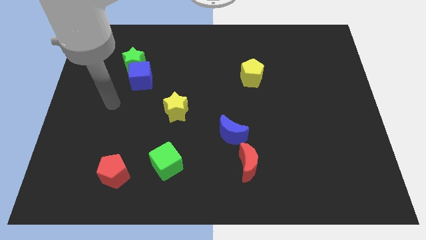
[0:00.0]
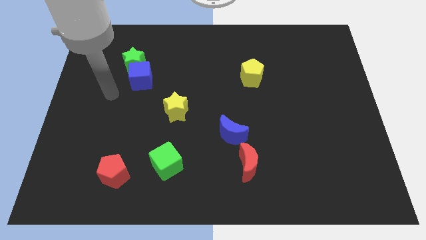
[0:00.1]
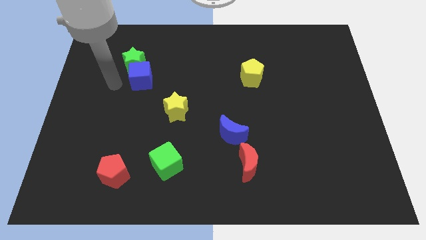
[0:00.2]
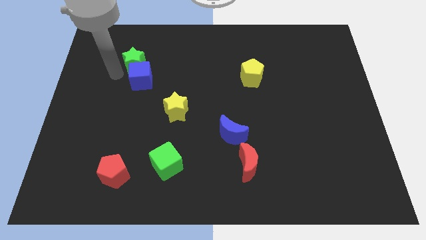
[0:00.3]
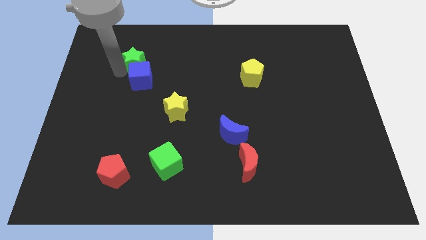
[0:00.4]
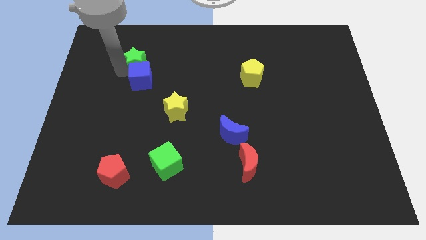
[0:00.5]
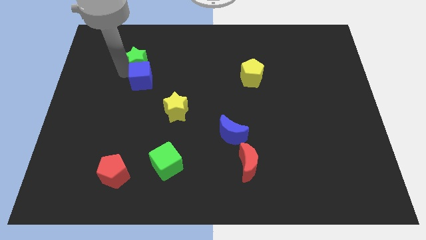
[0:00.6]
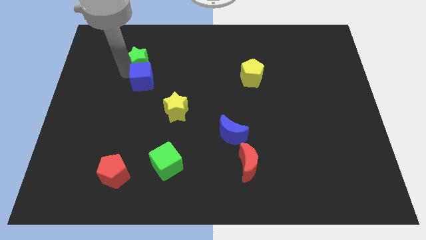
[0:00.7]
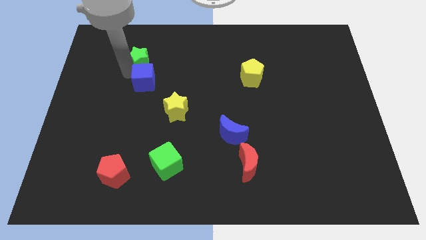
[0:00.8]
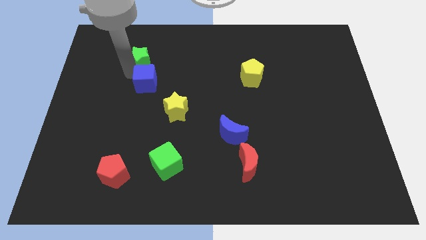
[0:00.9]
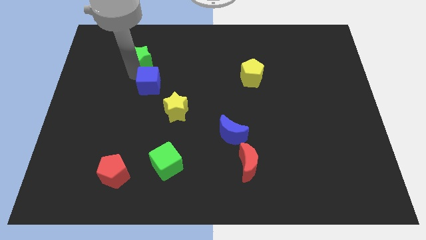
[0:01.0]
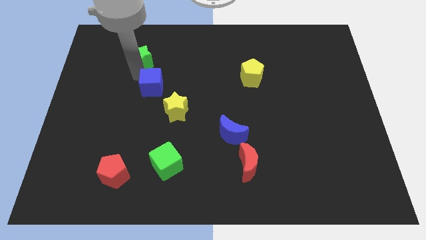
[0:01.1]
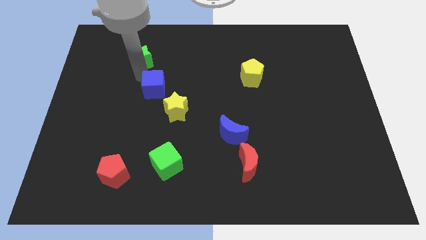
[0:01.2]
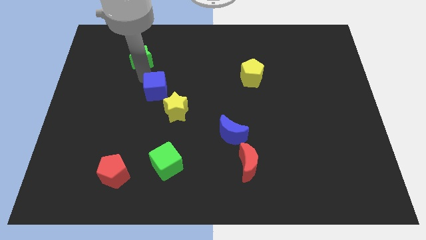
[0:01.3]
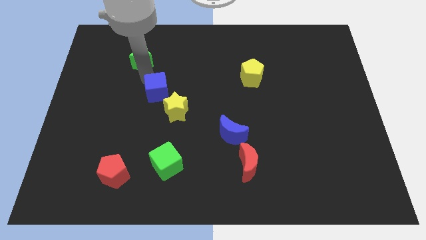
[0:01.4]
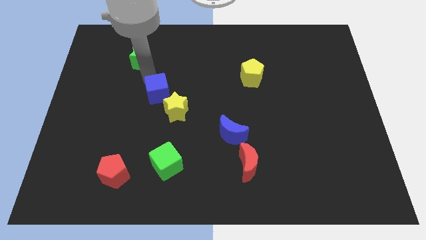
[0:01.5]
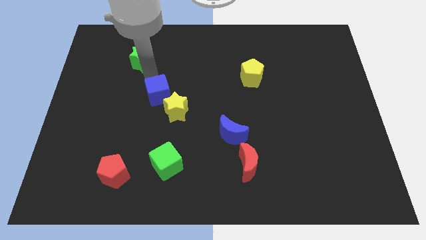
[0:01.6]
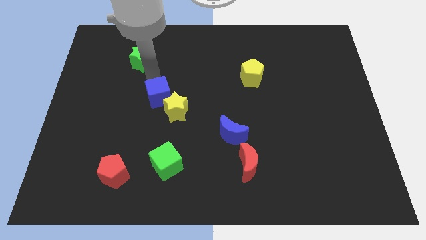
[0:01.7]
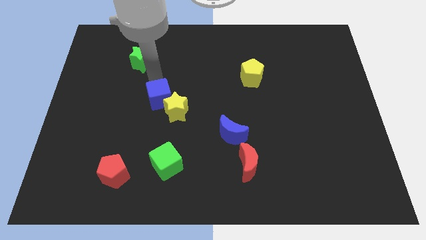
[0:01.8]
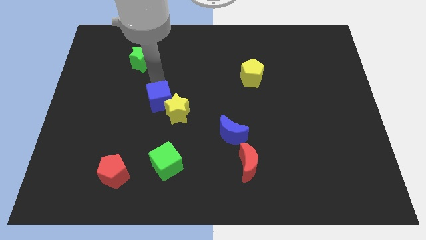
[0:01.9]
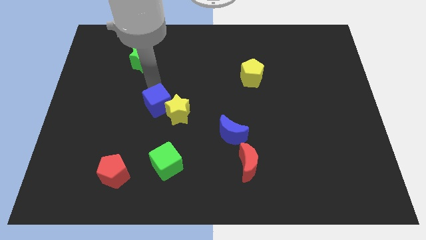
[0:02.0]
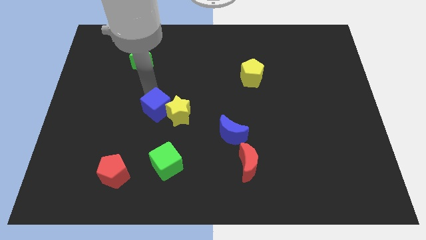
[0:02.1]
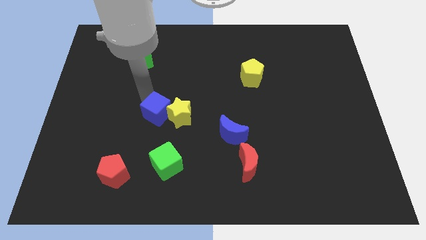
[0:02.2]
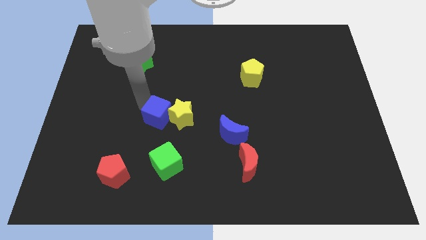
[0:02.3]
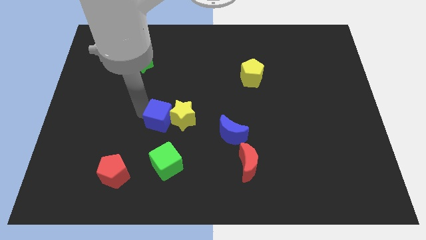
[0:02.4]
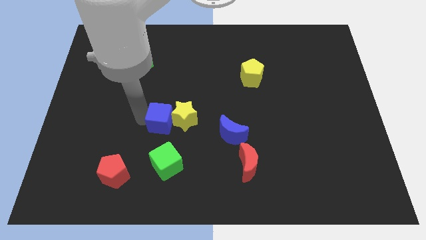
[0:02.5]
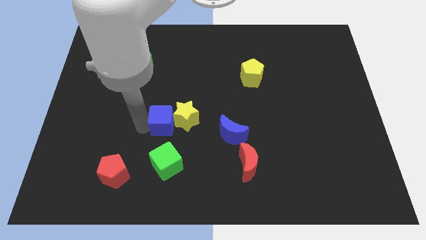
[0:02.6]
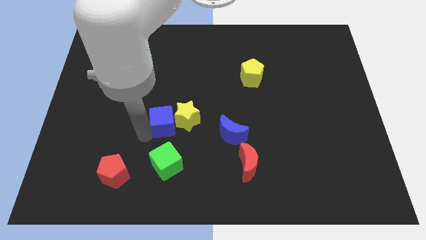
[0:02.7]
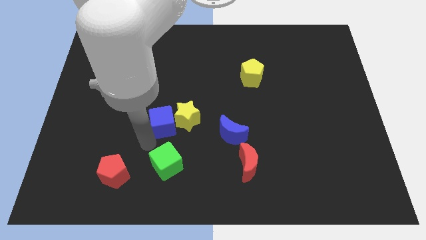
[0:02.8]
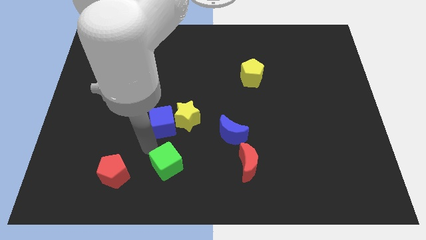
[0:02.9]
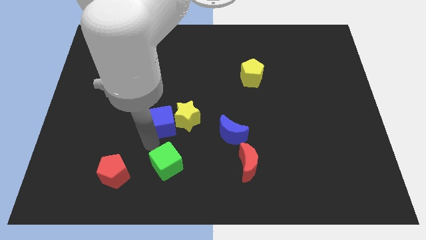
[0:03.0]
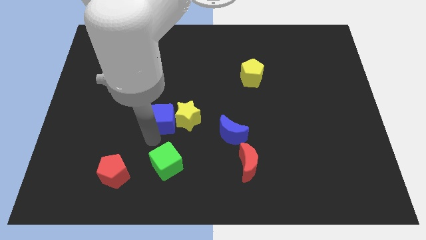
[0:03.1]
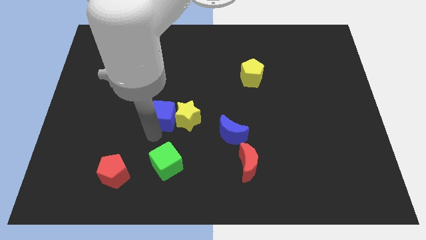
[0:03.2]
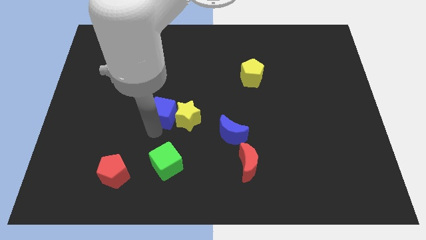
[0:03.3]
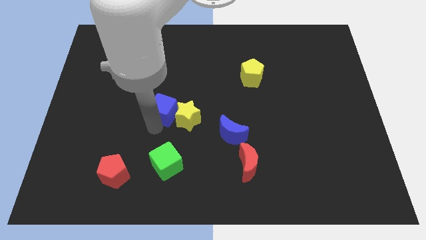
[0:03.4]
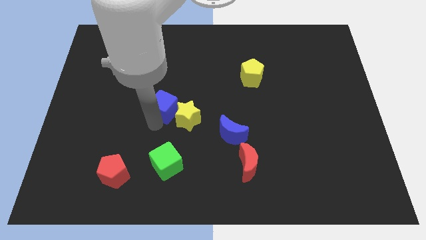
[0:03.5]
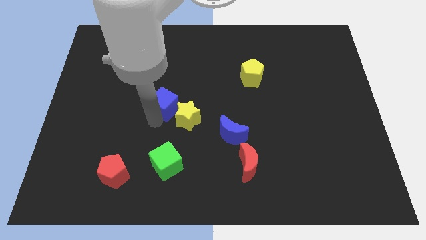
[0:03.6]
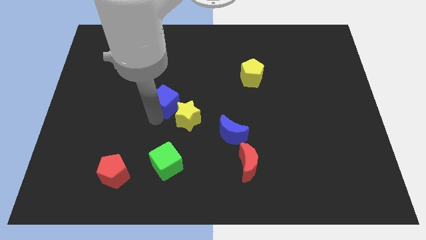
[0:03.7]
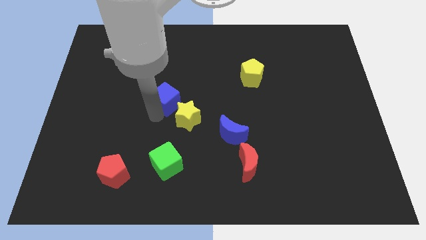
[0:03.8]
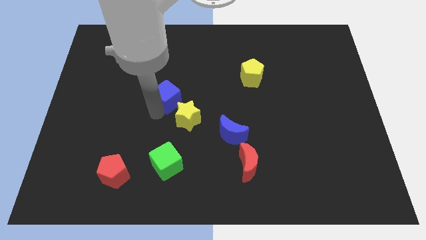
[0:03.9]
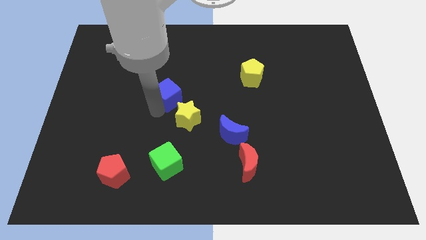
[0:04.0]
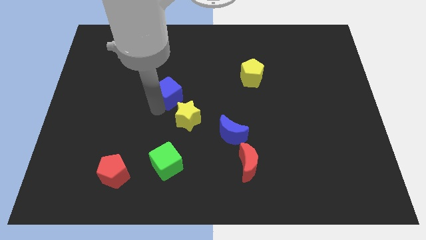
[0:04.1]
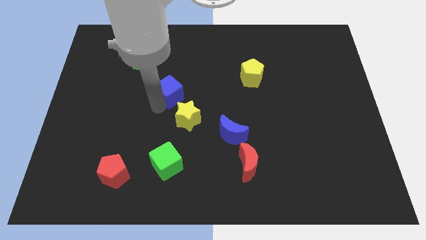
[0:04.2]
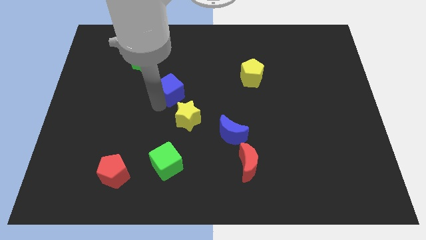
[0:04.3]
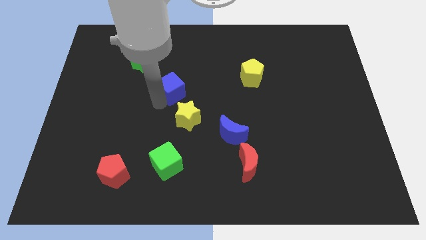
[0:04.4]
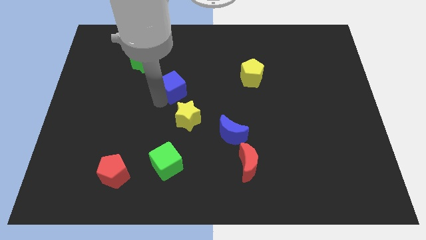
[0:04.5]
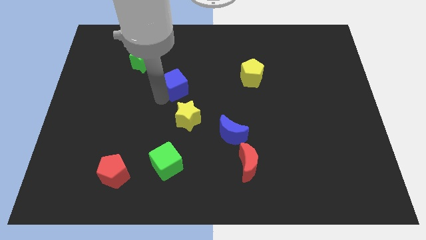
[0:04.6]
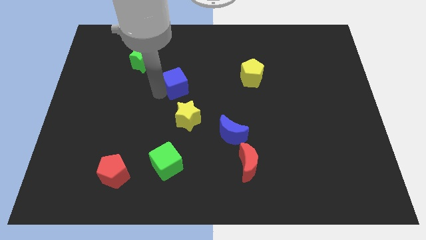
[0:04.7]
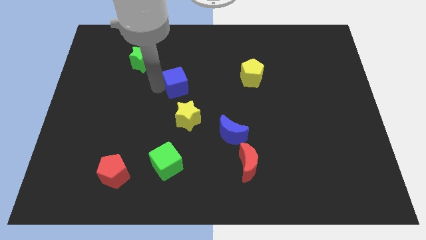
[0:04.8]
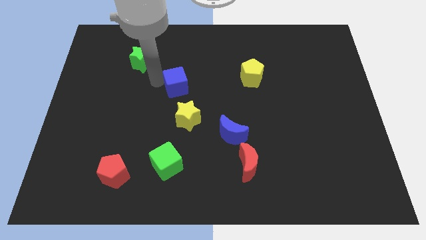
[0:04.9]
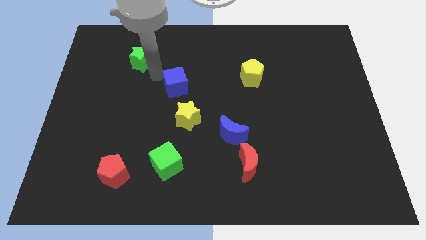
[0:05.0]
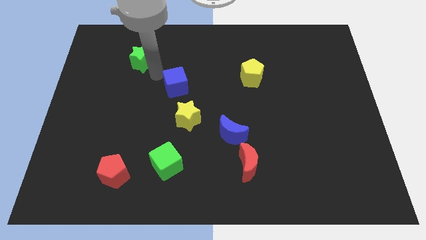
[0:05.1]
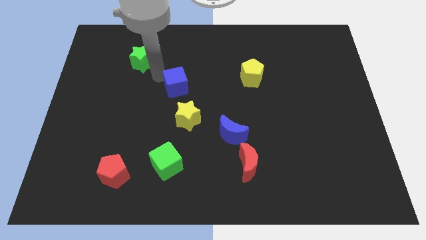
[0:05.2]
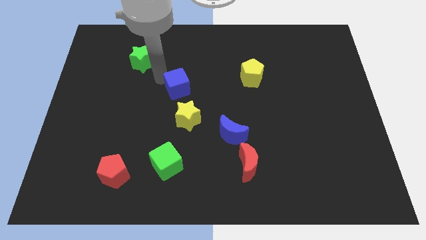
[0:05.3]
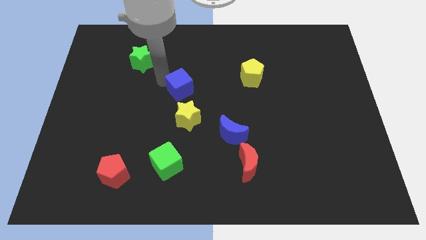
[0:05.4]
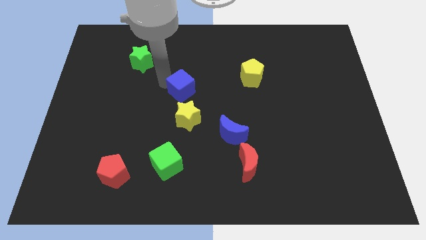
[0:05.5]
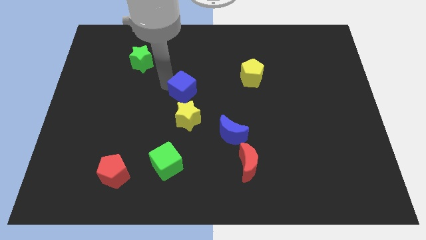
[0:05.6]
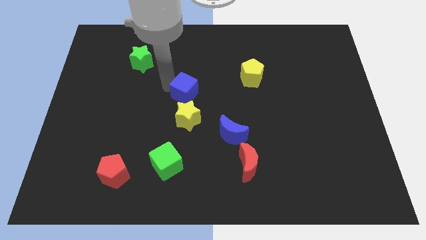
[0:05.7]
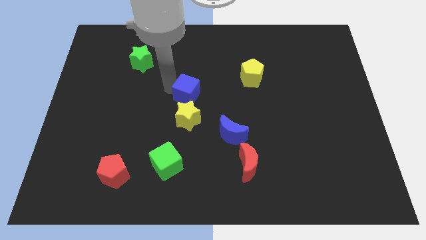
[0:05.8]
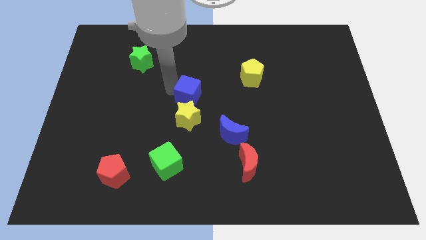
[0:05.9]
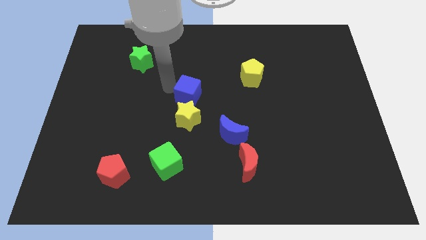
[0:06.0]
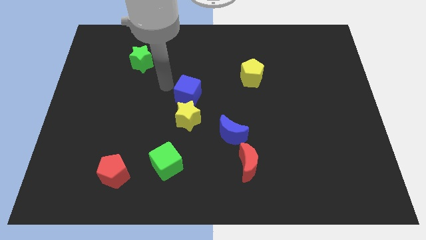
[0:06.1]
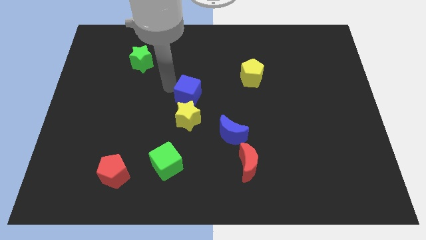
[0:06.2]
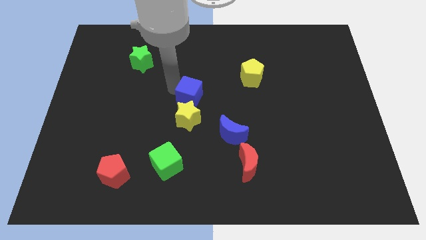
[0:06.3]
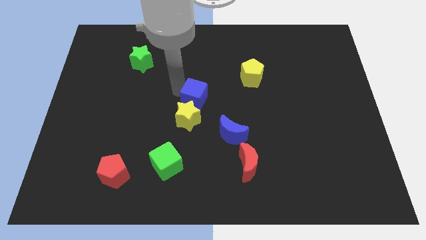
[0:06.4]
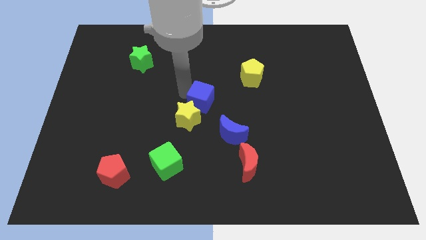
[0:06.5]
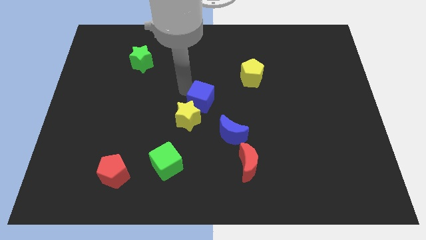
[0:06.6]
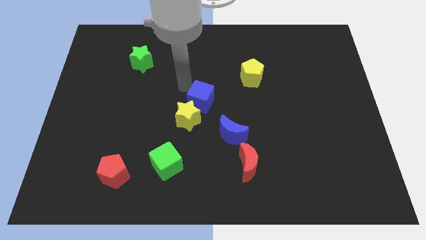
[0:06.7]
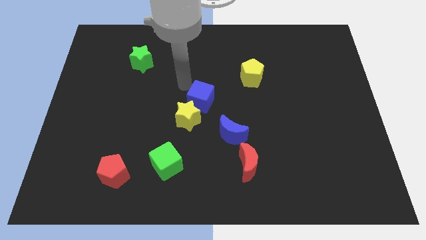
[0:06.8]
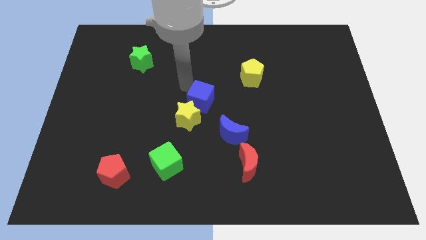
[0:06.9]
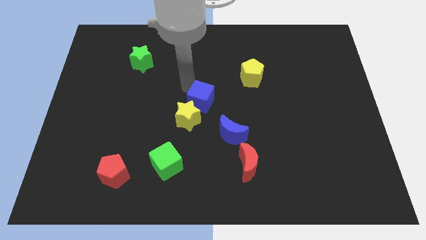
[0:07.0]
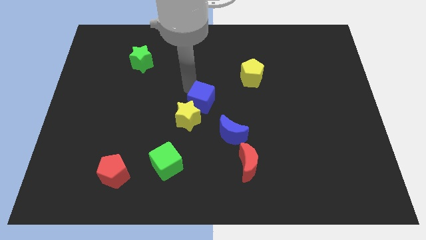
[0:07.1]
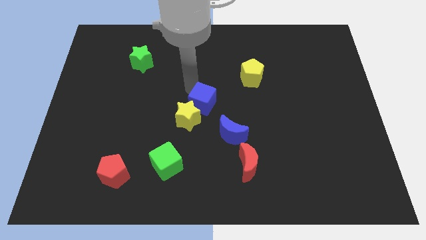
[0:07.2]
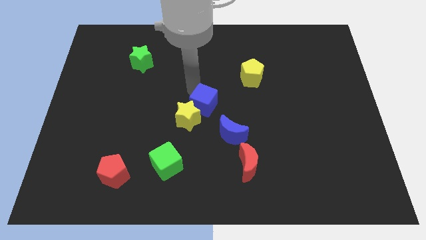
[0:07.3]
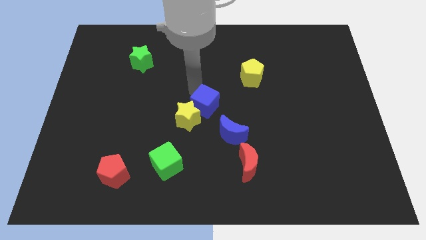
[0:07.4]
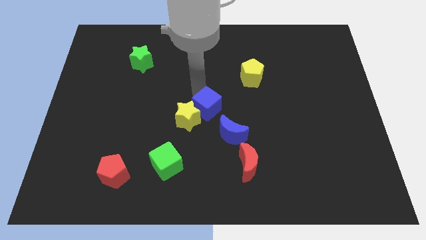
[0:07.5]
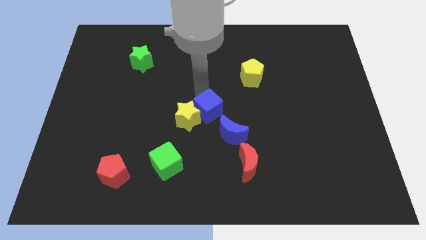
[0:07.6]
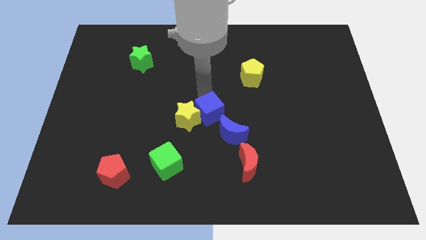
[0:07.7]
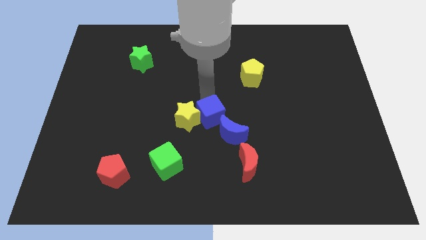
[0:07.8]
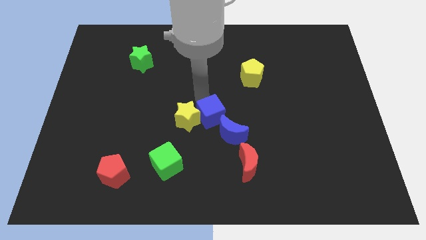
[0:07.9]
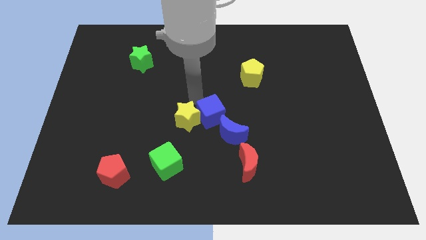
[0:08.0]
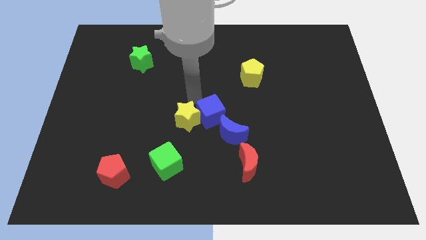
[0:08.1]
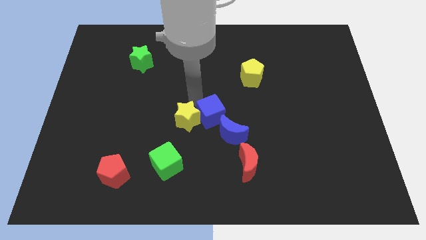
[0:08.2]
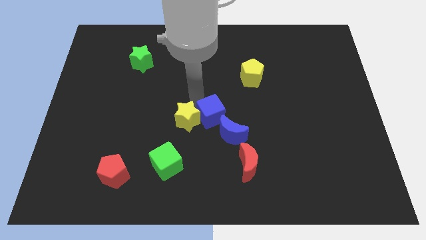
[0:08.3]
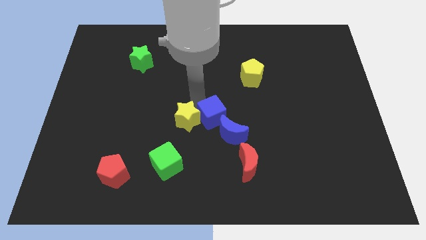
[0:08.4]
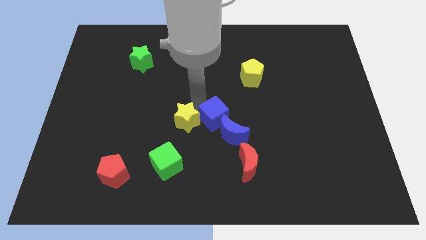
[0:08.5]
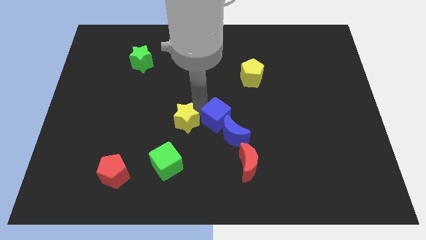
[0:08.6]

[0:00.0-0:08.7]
slide the blue cube to the blue moon
